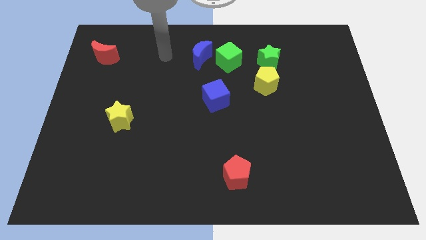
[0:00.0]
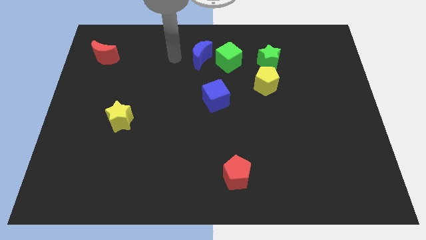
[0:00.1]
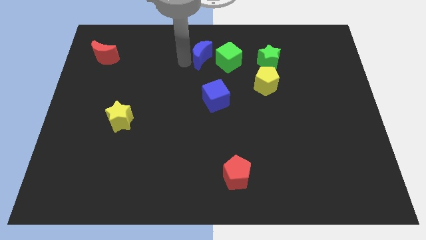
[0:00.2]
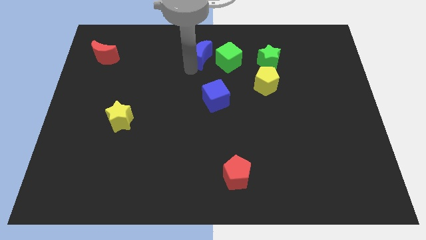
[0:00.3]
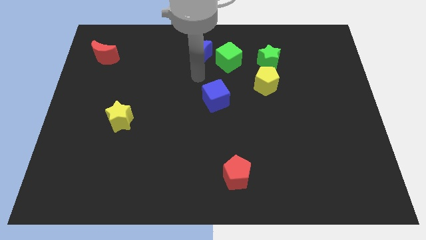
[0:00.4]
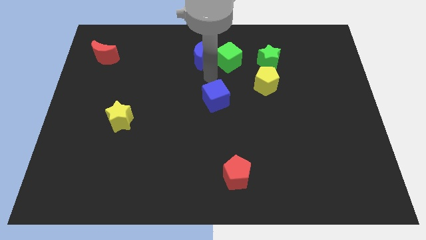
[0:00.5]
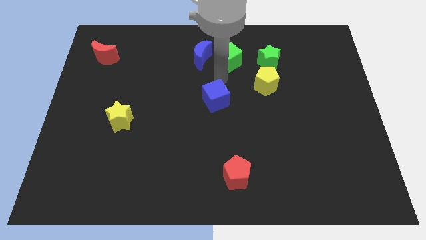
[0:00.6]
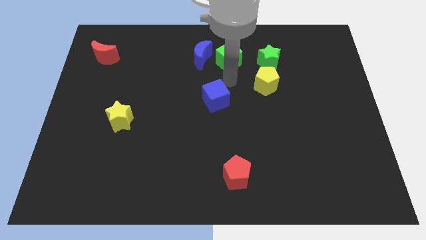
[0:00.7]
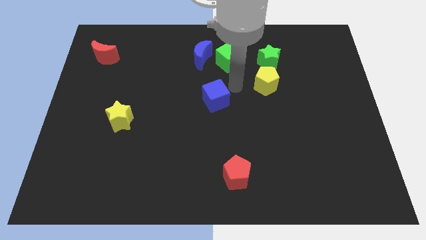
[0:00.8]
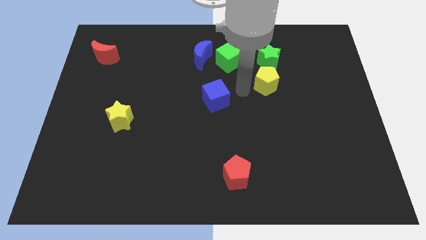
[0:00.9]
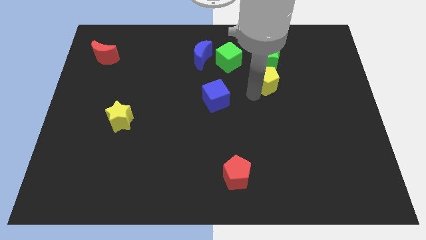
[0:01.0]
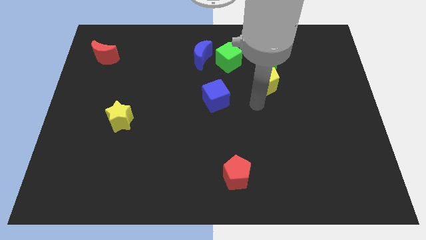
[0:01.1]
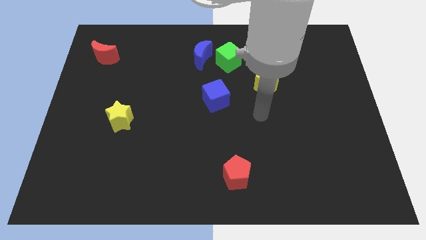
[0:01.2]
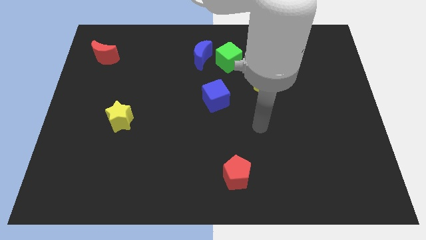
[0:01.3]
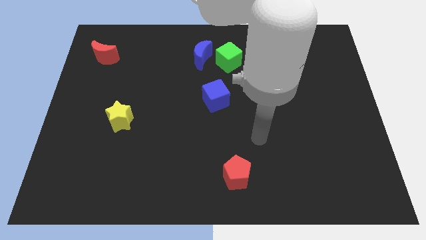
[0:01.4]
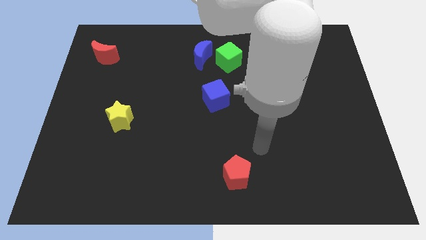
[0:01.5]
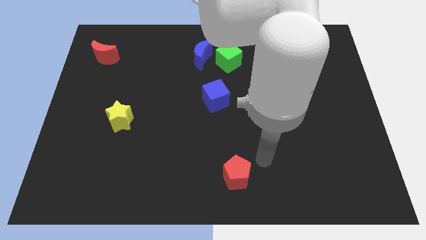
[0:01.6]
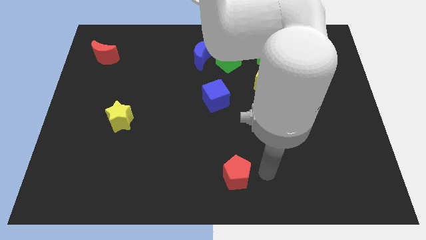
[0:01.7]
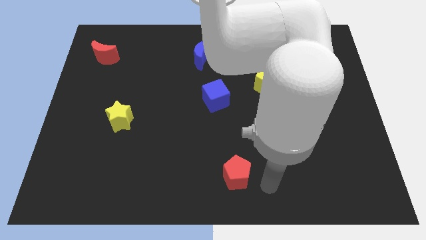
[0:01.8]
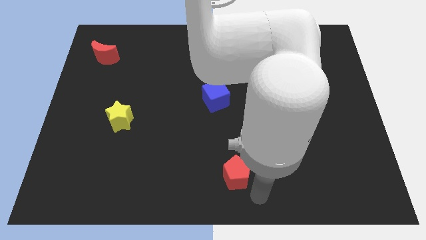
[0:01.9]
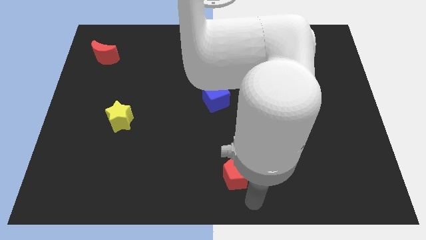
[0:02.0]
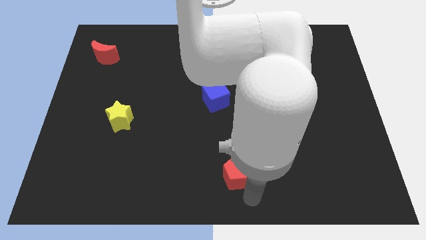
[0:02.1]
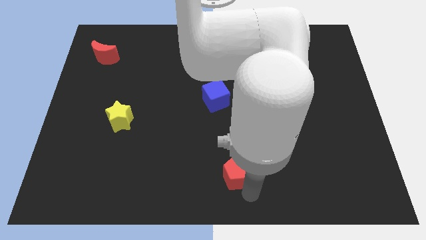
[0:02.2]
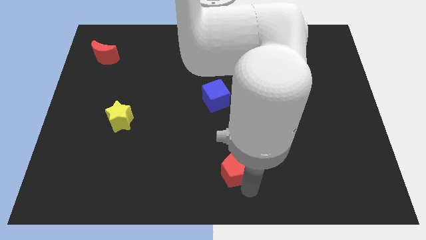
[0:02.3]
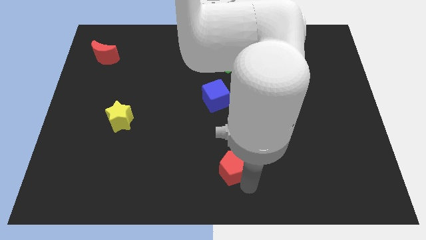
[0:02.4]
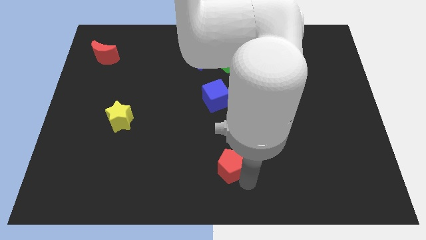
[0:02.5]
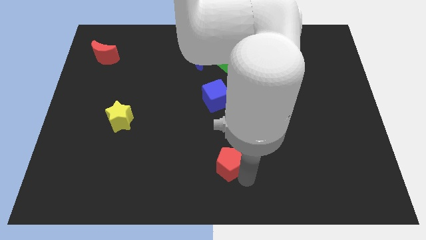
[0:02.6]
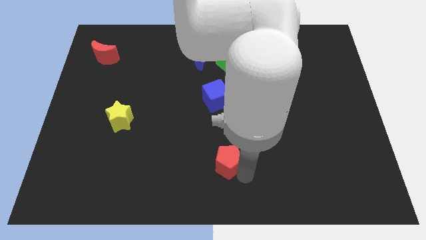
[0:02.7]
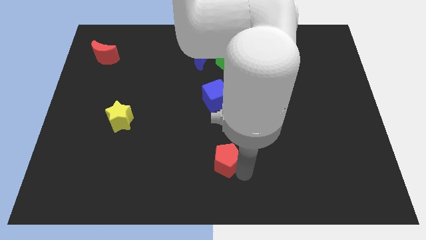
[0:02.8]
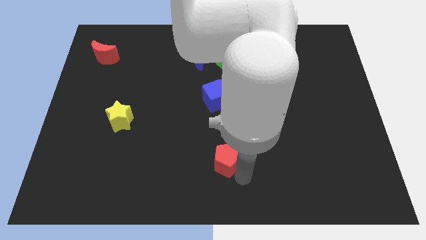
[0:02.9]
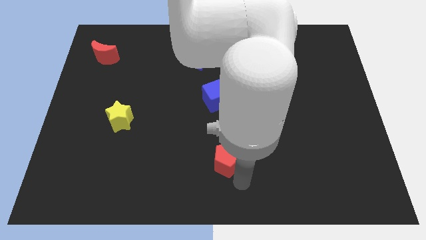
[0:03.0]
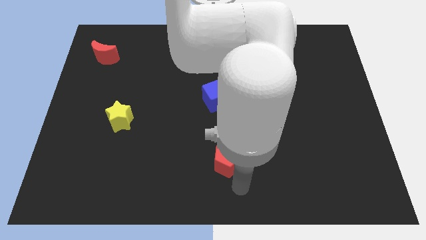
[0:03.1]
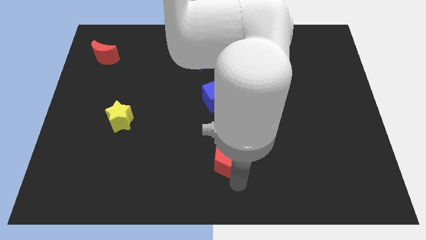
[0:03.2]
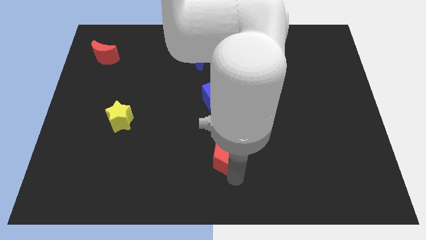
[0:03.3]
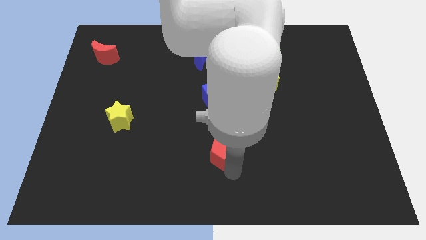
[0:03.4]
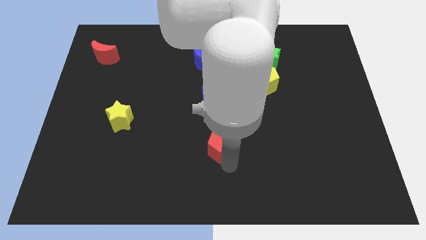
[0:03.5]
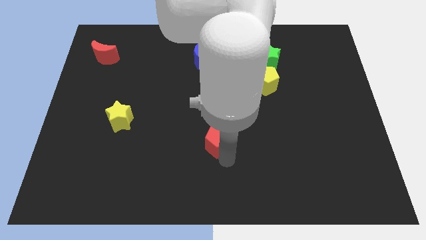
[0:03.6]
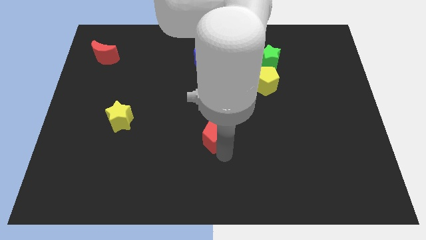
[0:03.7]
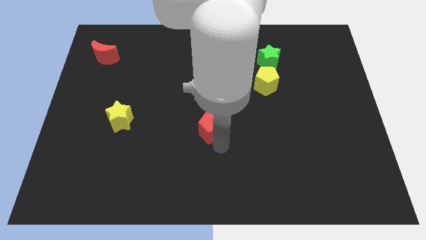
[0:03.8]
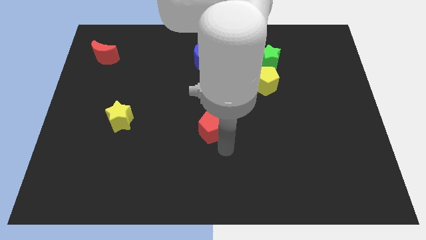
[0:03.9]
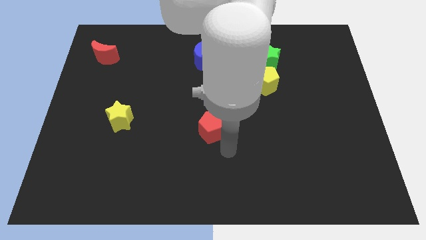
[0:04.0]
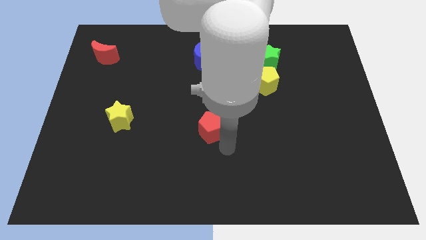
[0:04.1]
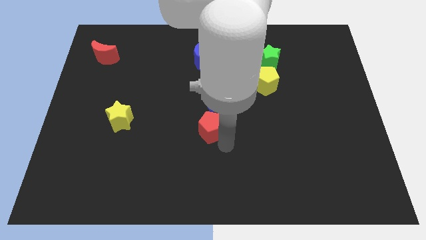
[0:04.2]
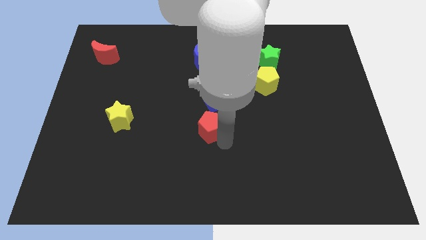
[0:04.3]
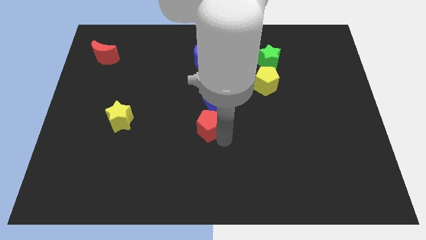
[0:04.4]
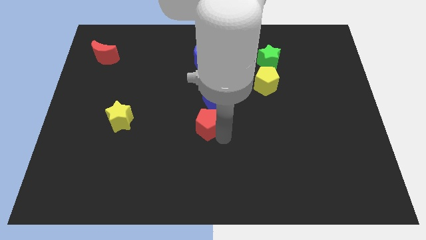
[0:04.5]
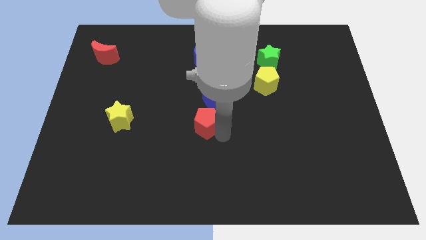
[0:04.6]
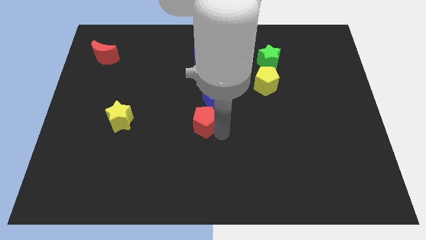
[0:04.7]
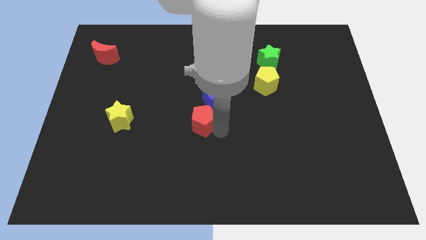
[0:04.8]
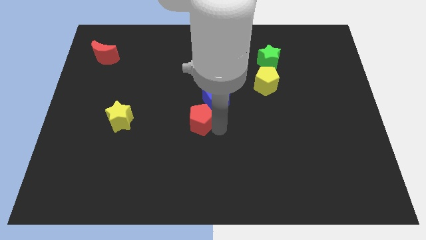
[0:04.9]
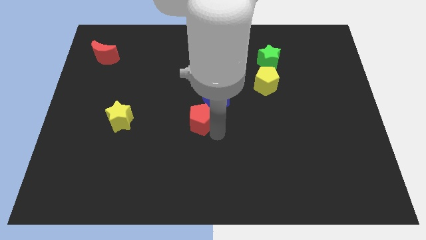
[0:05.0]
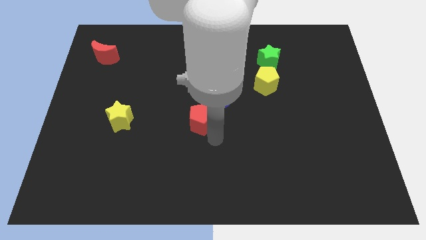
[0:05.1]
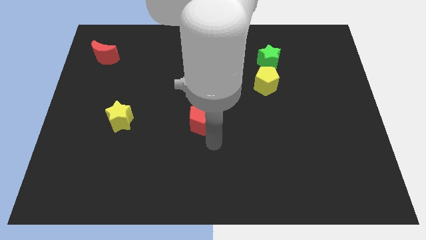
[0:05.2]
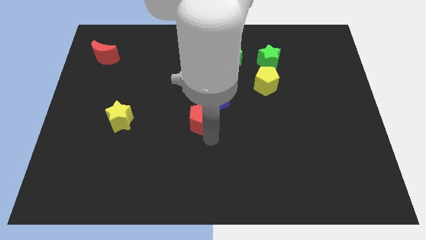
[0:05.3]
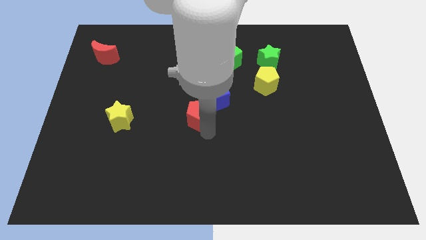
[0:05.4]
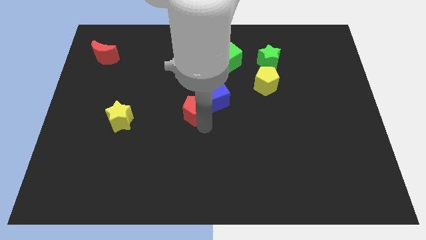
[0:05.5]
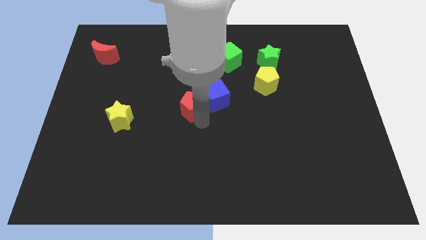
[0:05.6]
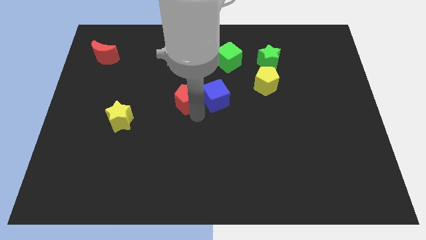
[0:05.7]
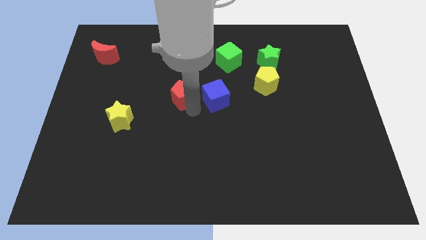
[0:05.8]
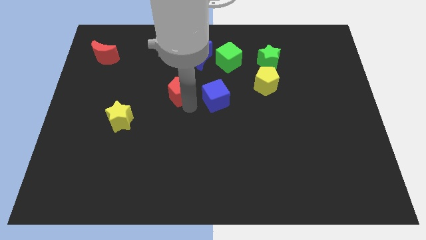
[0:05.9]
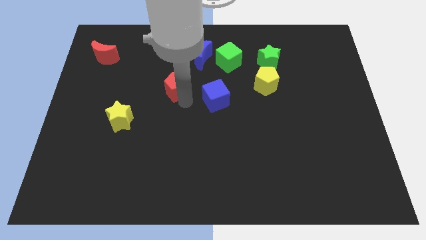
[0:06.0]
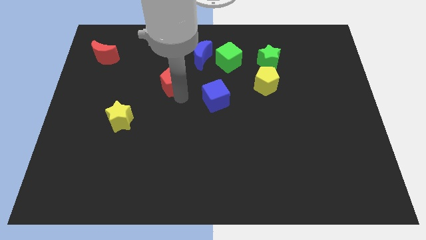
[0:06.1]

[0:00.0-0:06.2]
put the red pentagon to the bottom left side of the blue moon

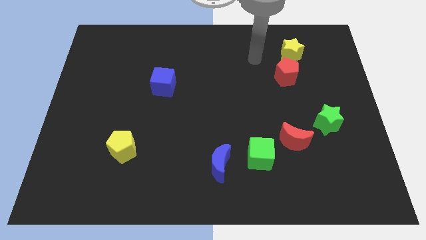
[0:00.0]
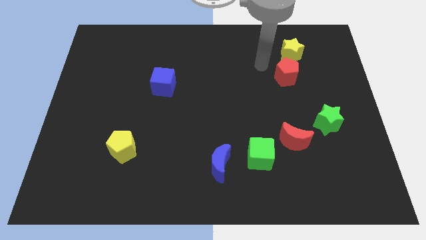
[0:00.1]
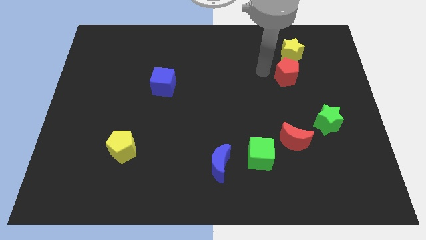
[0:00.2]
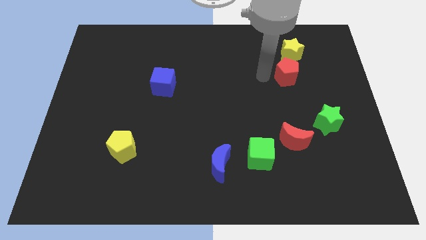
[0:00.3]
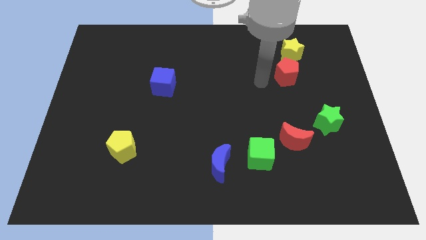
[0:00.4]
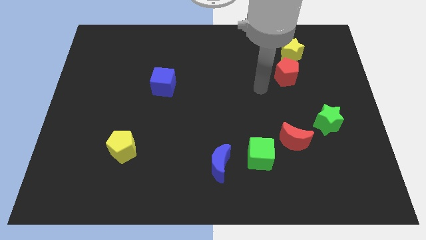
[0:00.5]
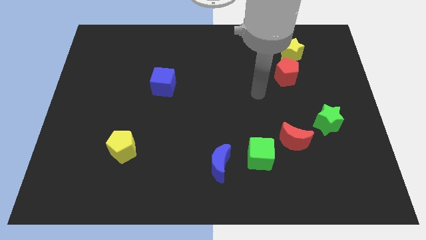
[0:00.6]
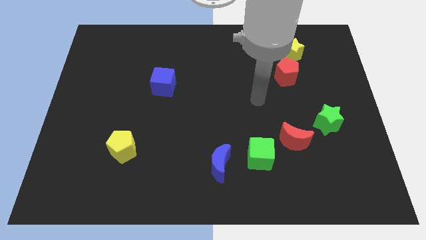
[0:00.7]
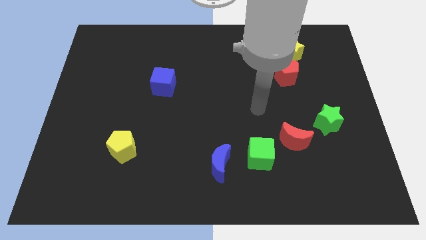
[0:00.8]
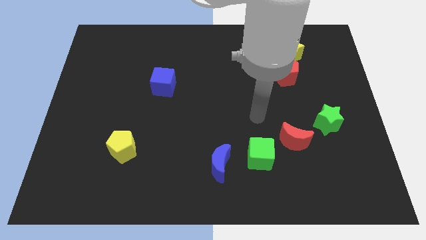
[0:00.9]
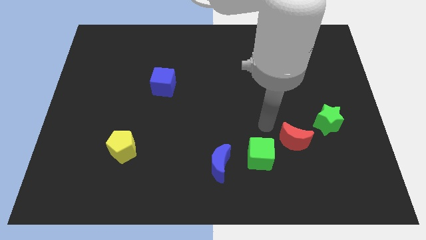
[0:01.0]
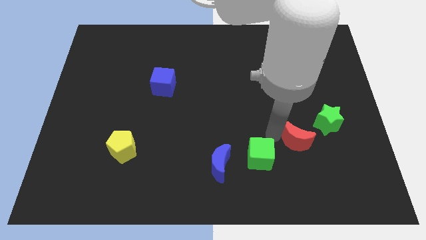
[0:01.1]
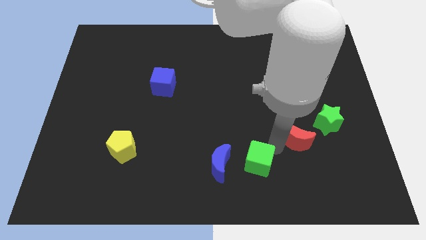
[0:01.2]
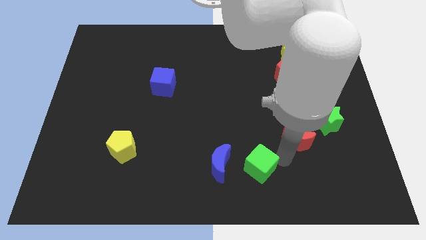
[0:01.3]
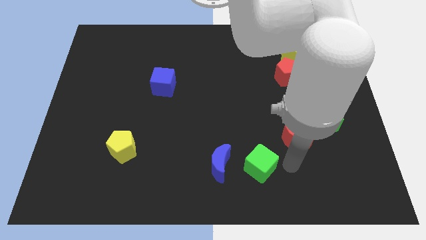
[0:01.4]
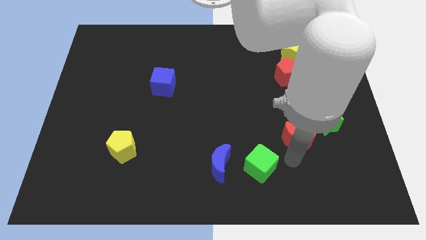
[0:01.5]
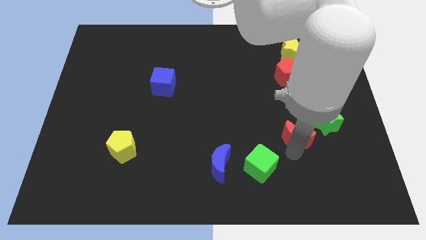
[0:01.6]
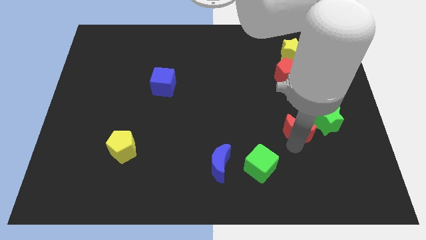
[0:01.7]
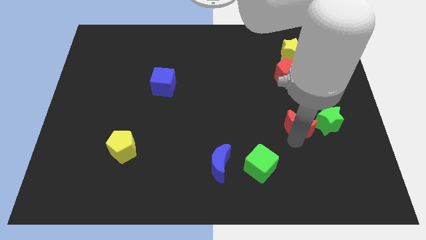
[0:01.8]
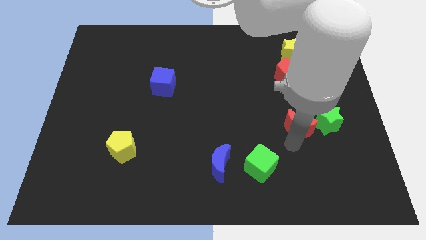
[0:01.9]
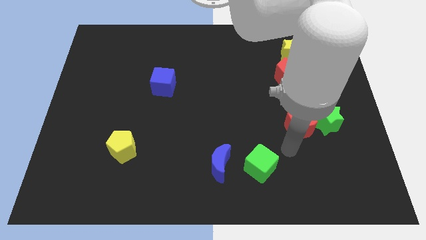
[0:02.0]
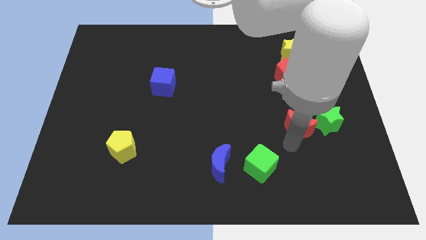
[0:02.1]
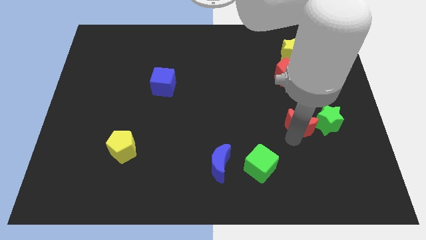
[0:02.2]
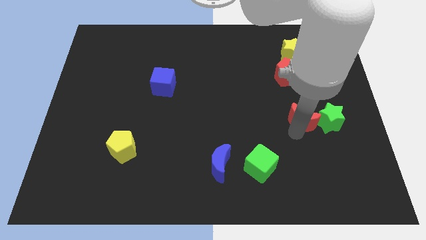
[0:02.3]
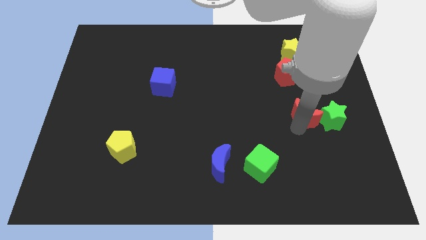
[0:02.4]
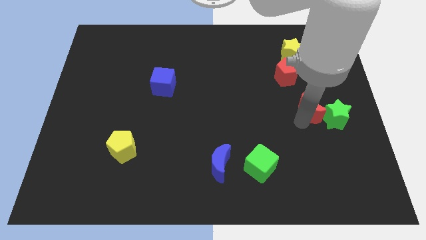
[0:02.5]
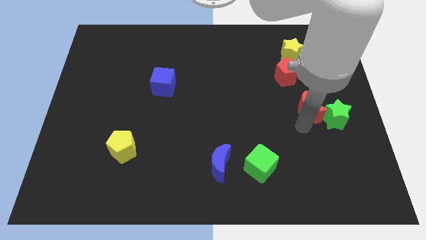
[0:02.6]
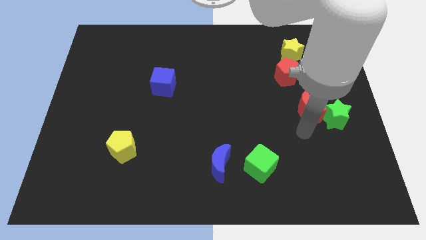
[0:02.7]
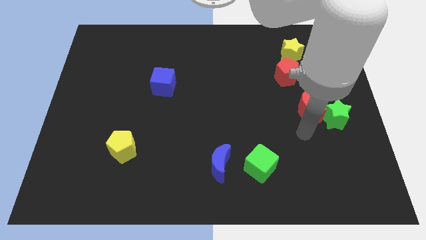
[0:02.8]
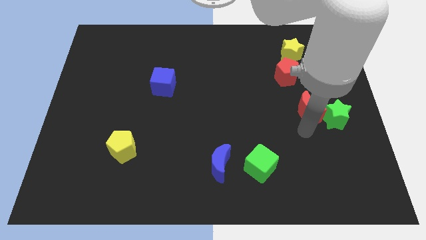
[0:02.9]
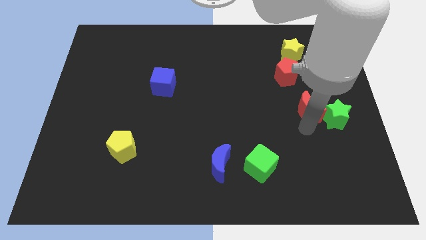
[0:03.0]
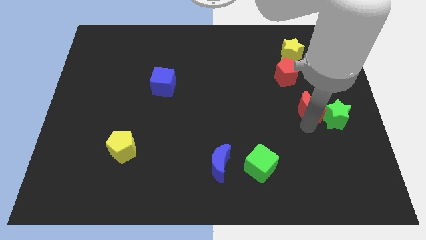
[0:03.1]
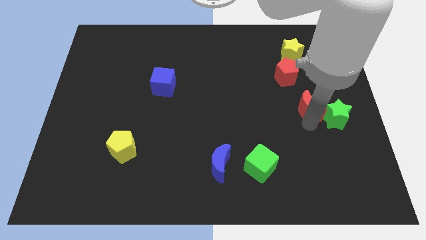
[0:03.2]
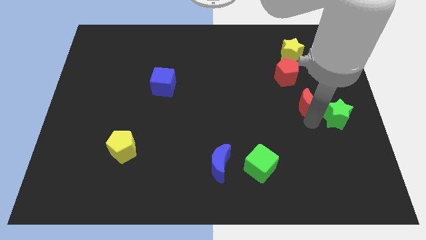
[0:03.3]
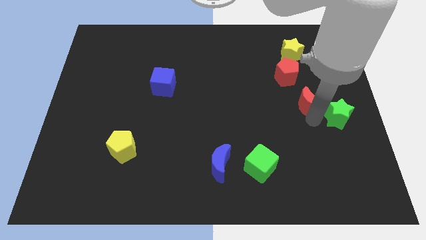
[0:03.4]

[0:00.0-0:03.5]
push the red moon to the bottom right side of the red pentagon
